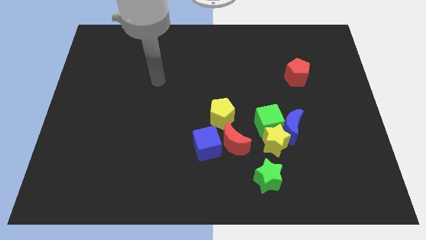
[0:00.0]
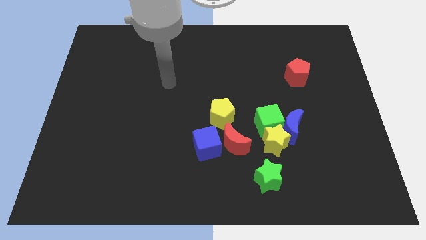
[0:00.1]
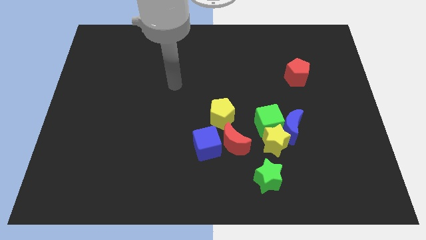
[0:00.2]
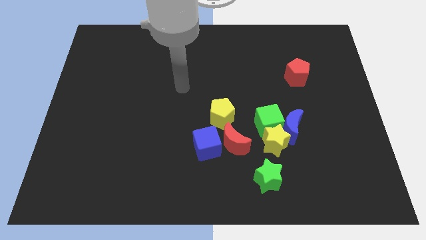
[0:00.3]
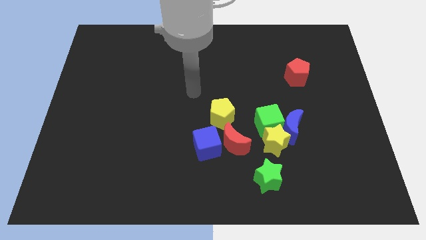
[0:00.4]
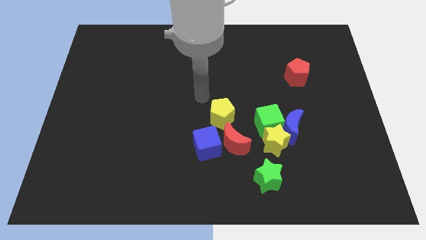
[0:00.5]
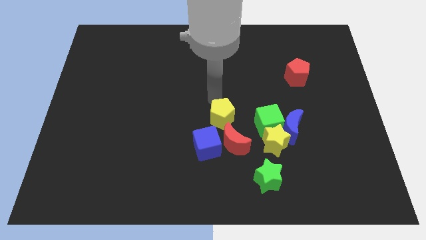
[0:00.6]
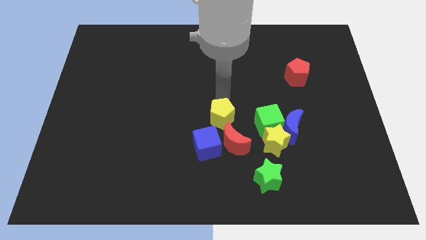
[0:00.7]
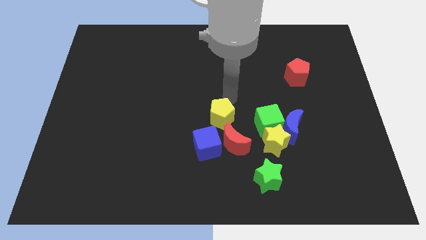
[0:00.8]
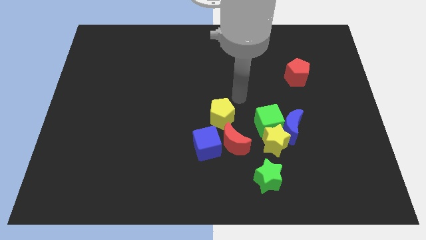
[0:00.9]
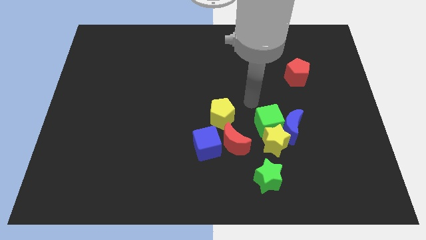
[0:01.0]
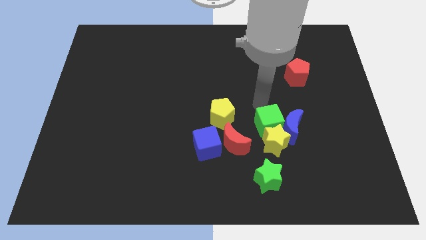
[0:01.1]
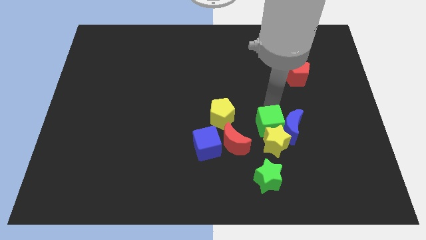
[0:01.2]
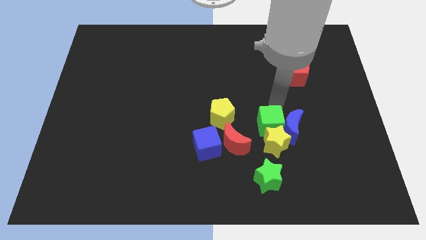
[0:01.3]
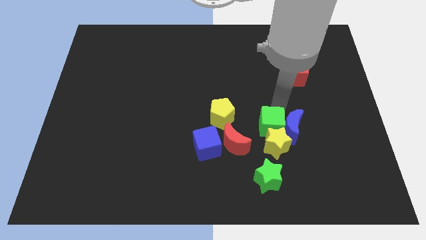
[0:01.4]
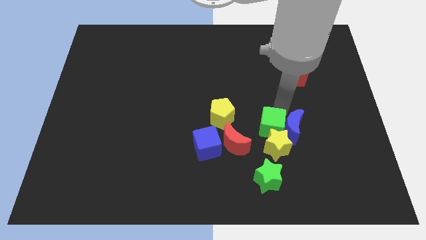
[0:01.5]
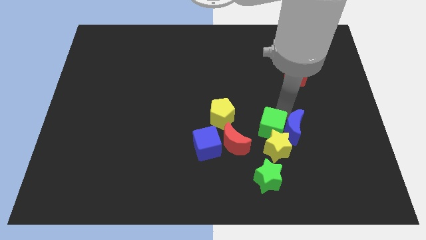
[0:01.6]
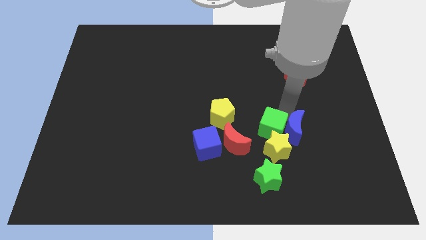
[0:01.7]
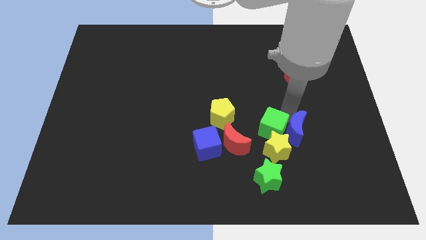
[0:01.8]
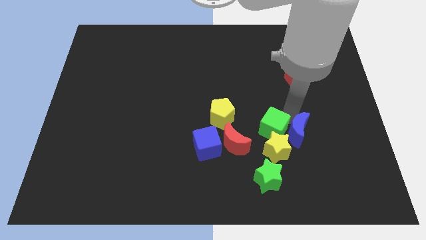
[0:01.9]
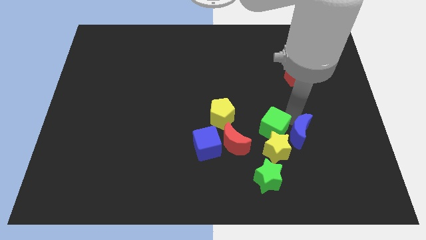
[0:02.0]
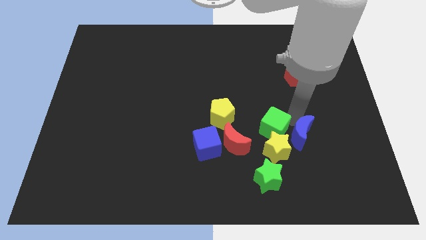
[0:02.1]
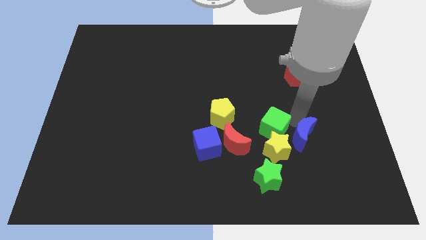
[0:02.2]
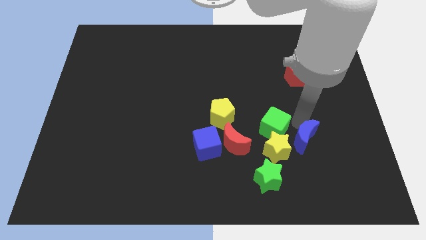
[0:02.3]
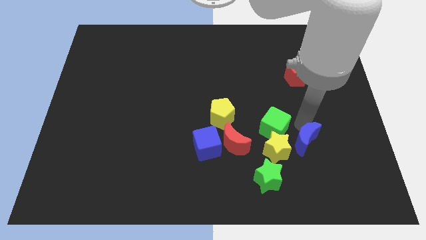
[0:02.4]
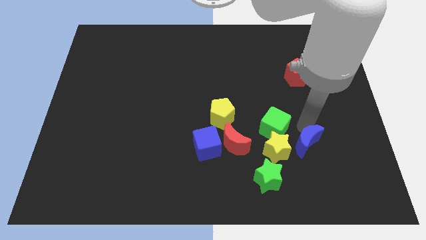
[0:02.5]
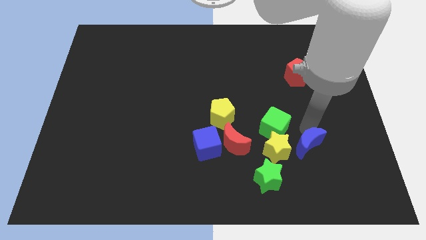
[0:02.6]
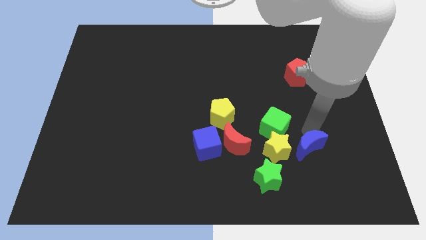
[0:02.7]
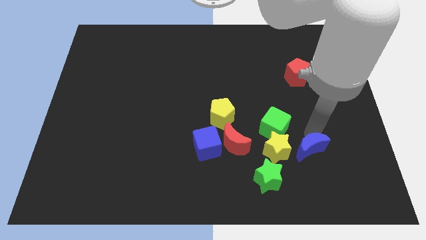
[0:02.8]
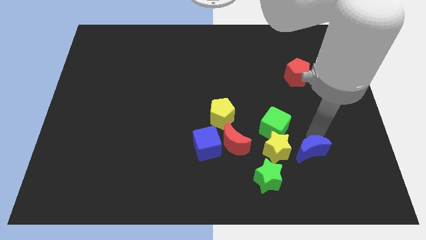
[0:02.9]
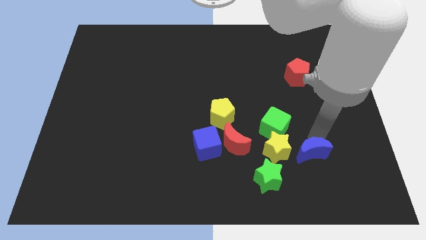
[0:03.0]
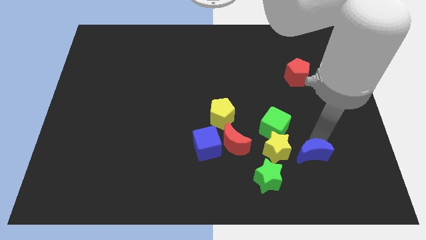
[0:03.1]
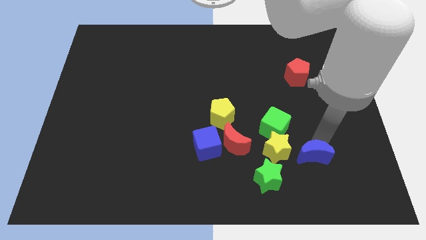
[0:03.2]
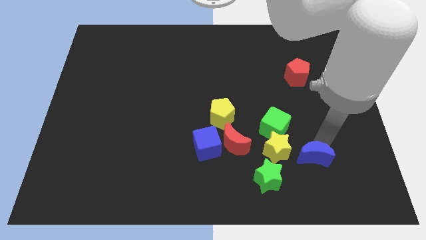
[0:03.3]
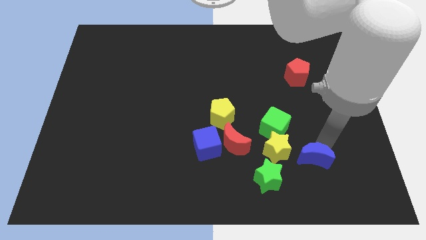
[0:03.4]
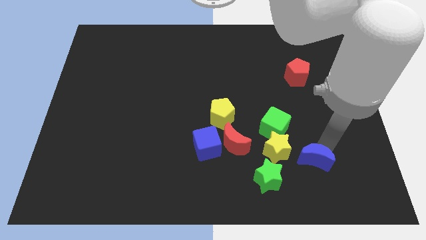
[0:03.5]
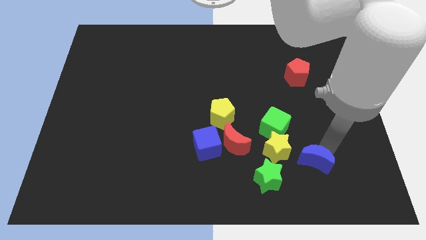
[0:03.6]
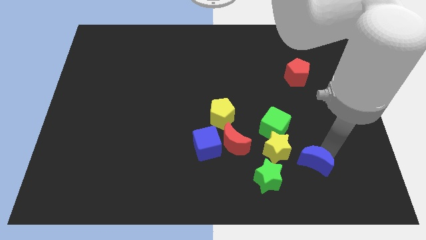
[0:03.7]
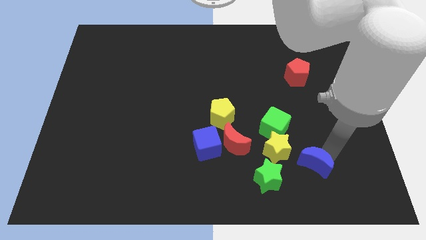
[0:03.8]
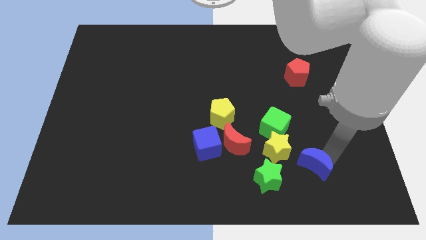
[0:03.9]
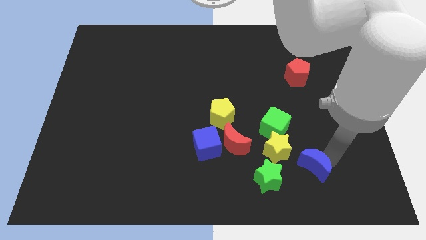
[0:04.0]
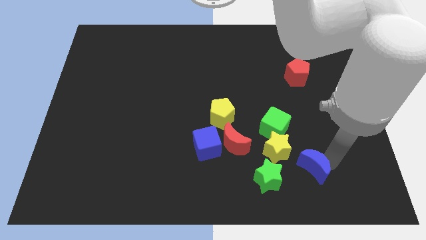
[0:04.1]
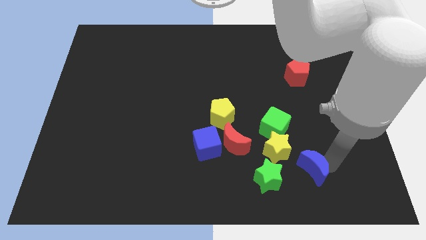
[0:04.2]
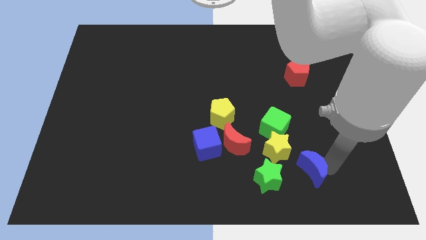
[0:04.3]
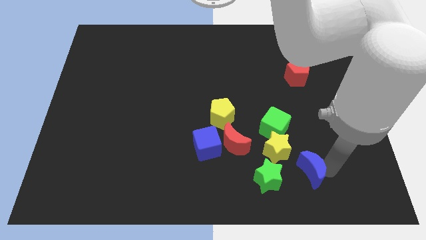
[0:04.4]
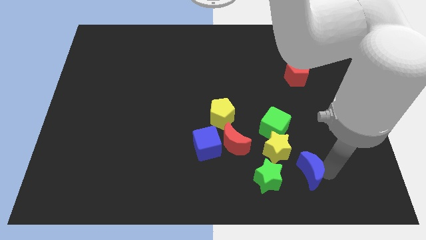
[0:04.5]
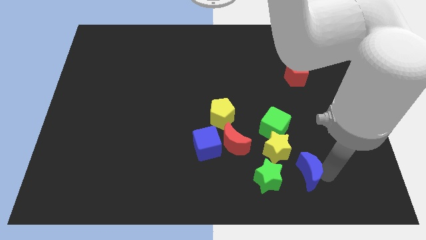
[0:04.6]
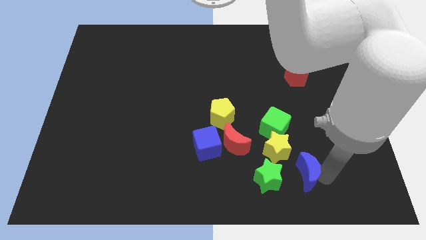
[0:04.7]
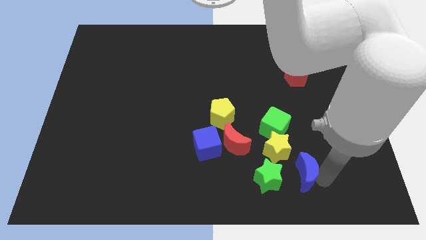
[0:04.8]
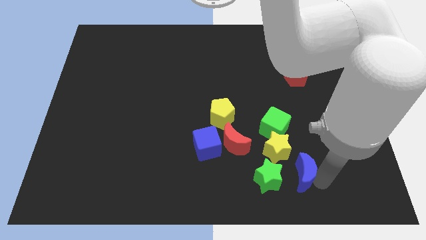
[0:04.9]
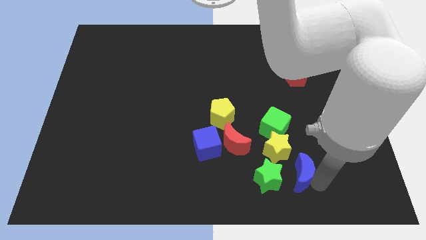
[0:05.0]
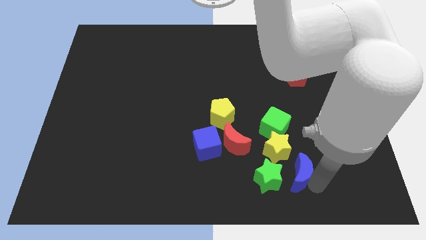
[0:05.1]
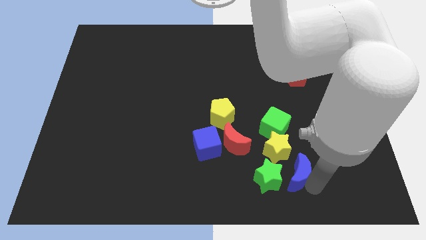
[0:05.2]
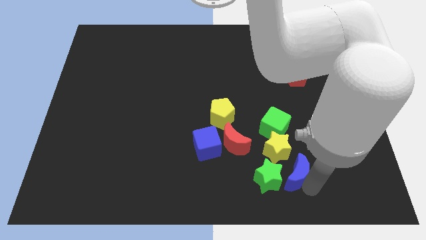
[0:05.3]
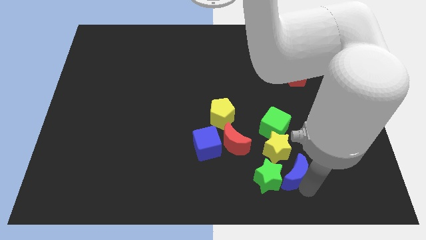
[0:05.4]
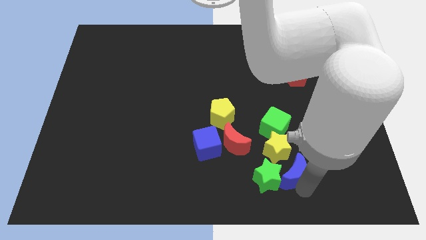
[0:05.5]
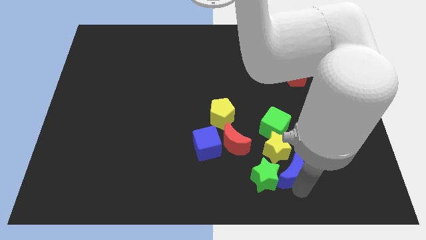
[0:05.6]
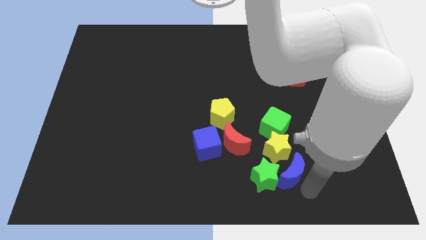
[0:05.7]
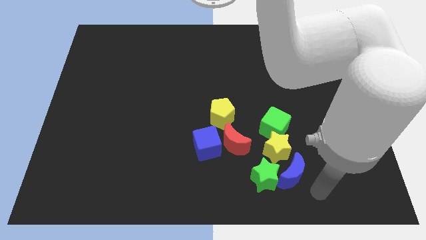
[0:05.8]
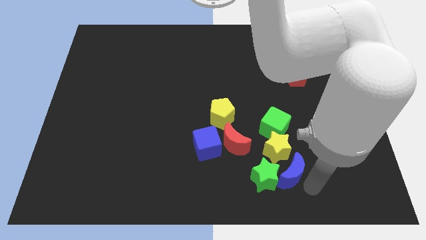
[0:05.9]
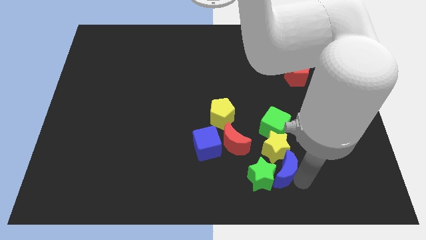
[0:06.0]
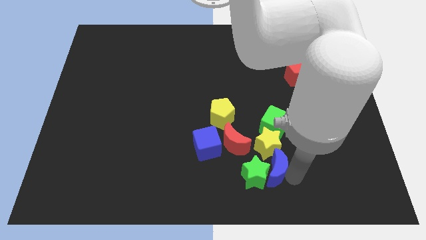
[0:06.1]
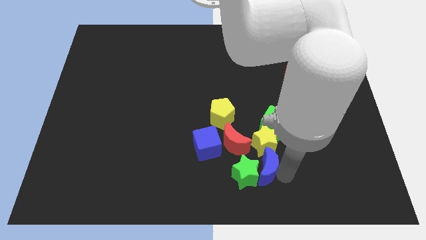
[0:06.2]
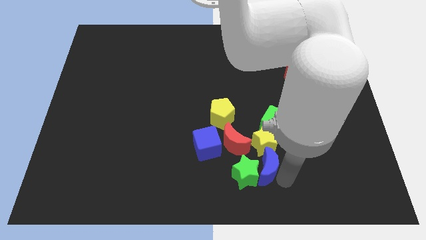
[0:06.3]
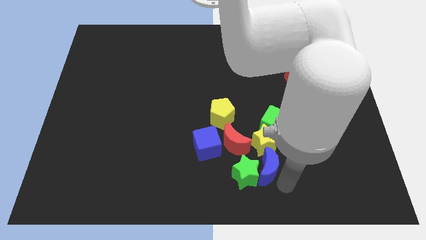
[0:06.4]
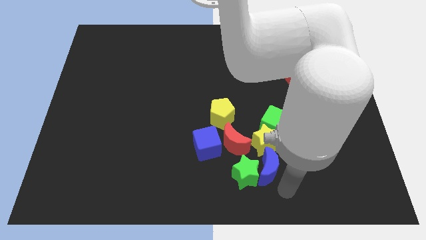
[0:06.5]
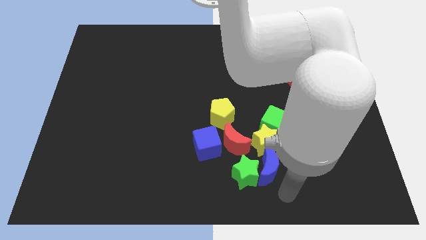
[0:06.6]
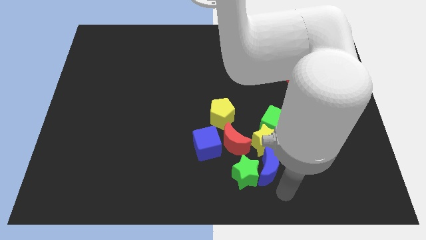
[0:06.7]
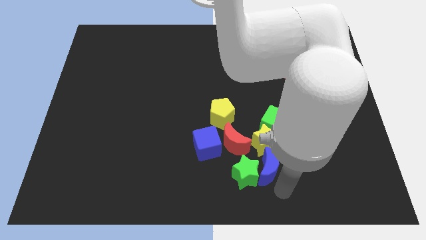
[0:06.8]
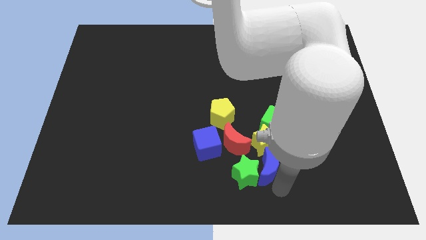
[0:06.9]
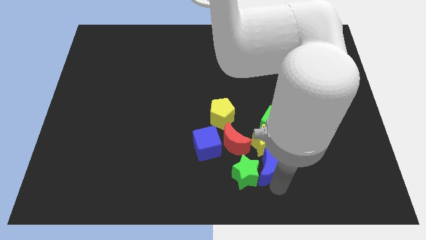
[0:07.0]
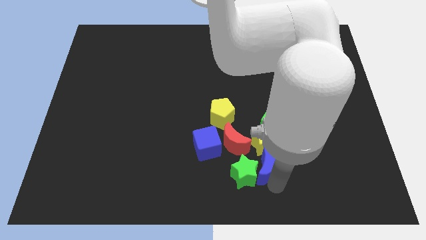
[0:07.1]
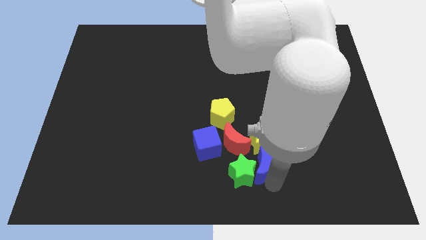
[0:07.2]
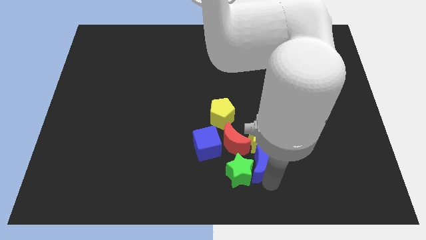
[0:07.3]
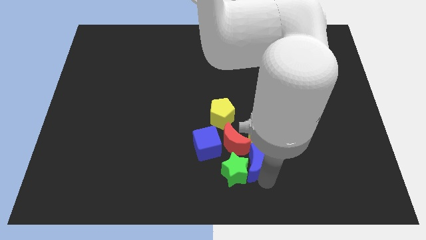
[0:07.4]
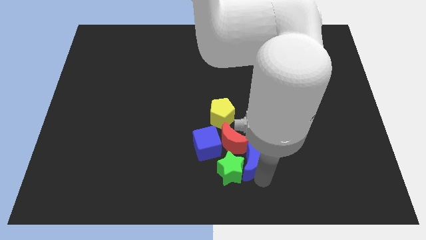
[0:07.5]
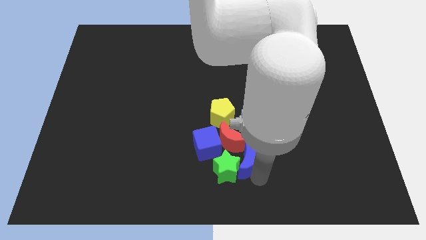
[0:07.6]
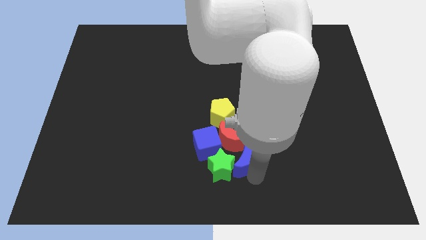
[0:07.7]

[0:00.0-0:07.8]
slide the blue moon next to the red moon

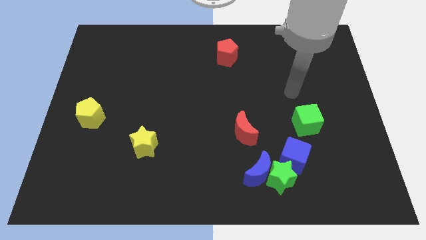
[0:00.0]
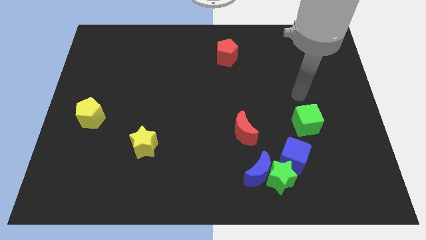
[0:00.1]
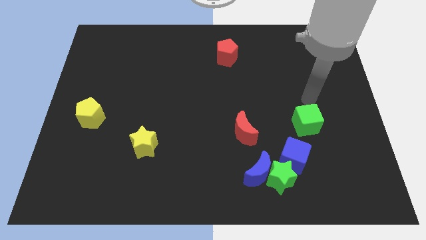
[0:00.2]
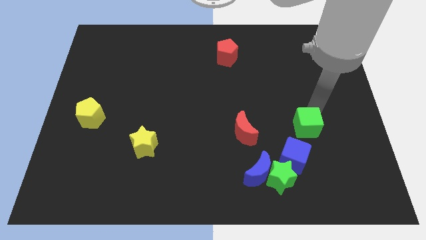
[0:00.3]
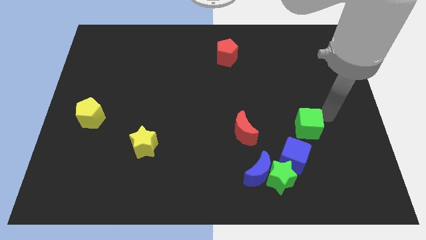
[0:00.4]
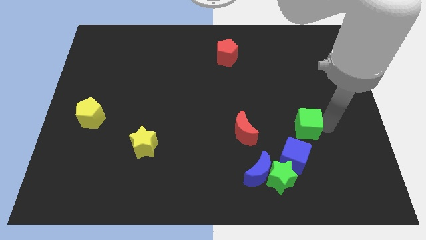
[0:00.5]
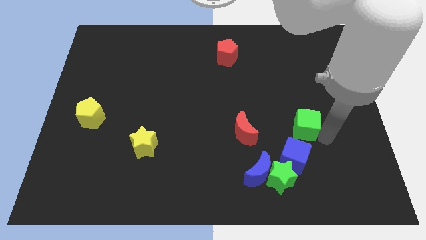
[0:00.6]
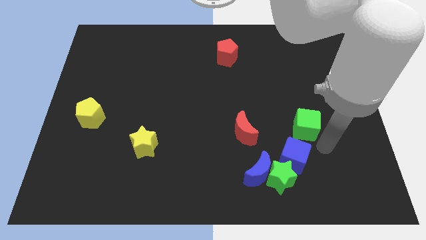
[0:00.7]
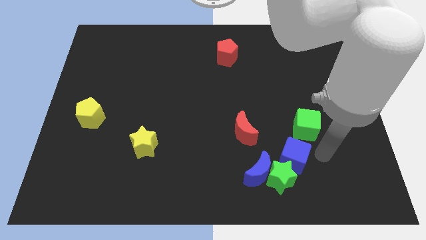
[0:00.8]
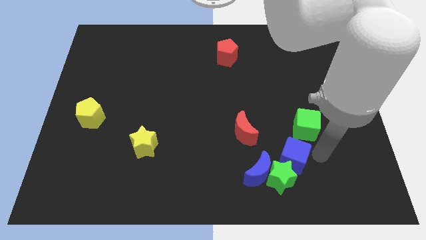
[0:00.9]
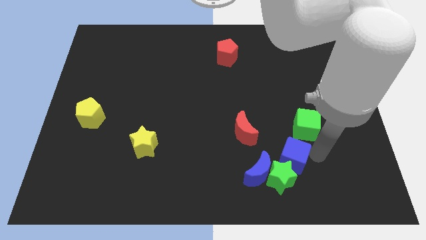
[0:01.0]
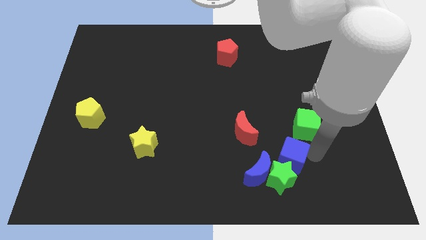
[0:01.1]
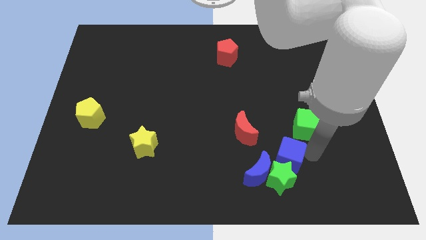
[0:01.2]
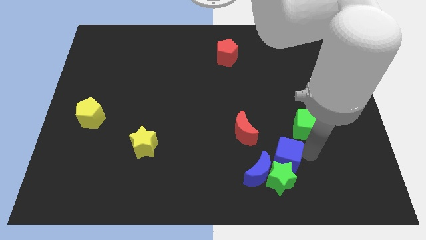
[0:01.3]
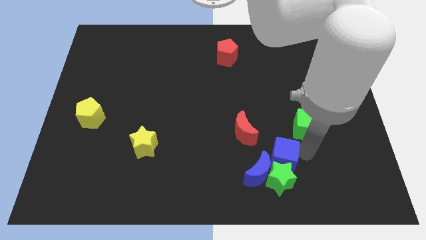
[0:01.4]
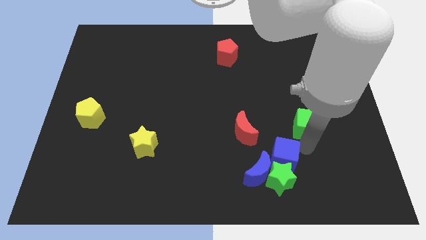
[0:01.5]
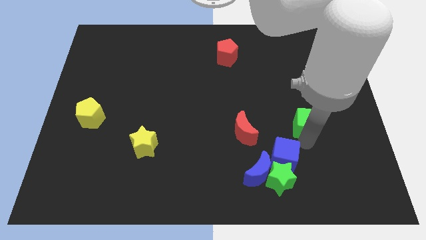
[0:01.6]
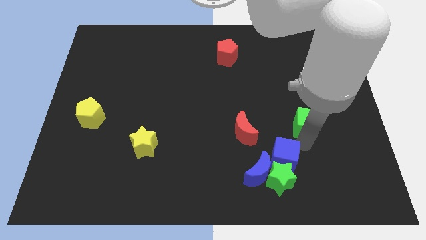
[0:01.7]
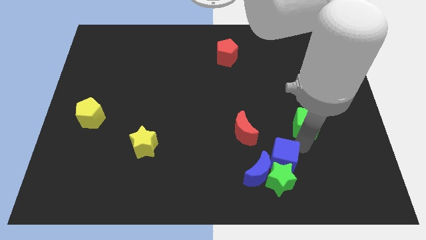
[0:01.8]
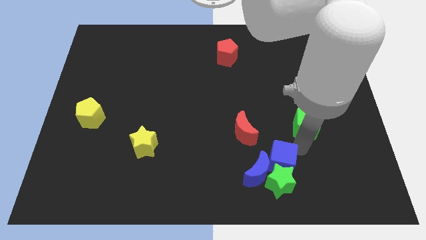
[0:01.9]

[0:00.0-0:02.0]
push the blue cube close to the blue moon
